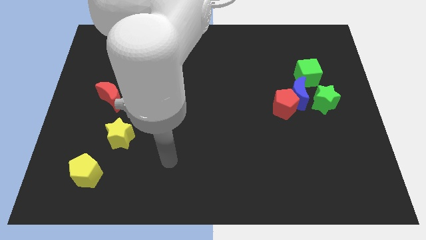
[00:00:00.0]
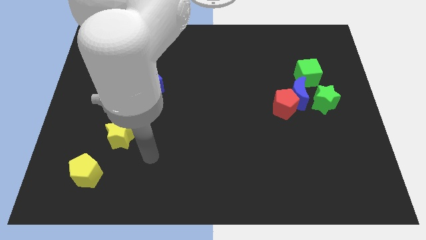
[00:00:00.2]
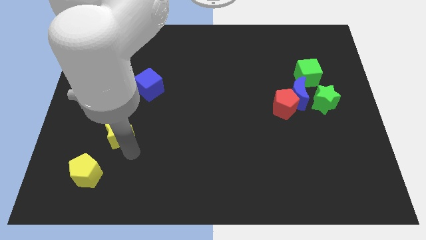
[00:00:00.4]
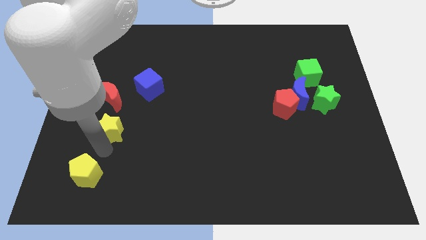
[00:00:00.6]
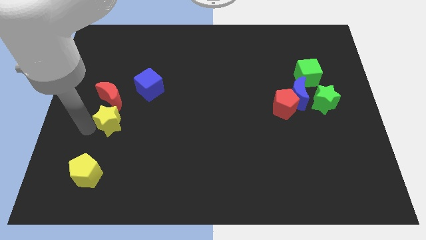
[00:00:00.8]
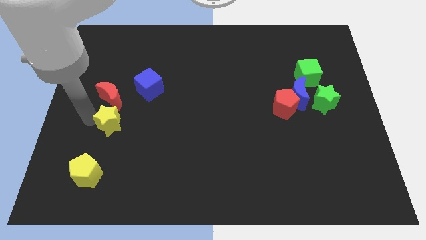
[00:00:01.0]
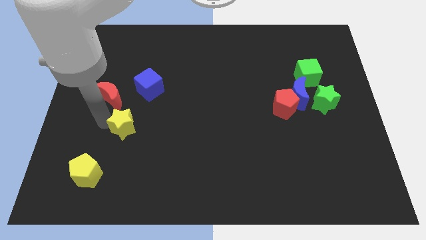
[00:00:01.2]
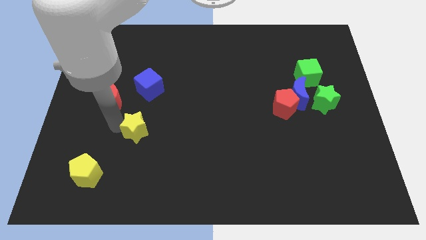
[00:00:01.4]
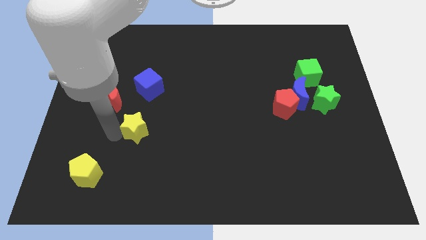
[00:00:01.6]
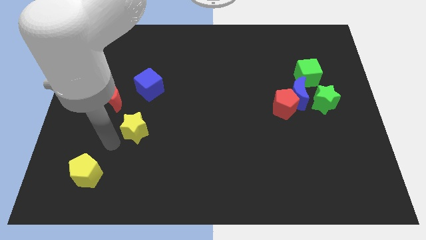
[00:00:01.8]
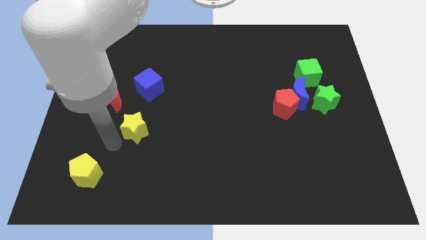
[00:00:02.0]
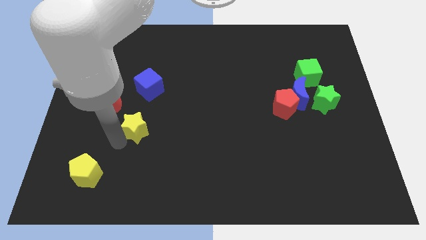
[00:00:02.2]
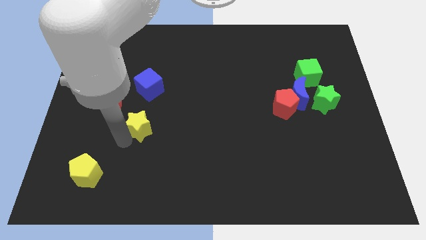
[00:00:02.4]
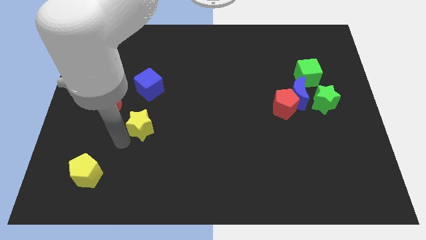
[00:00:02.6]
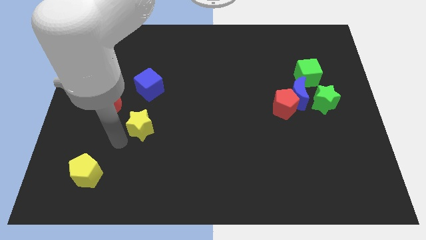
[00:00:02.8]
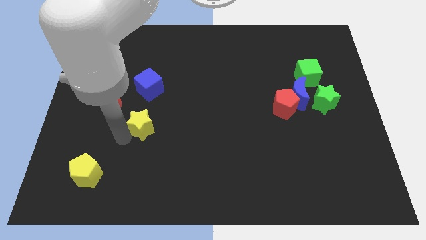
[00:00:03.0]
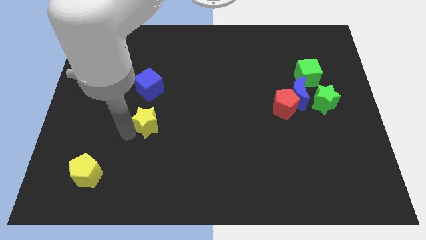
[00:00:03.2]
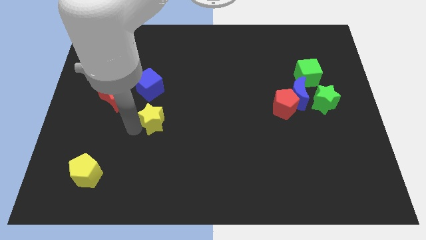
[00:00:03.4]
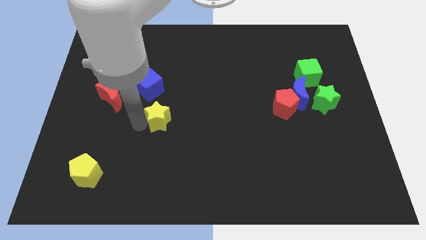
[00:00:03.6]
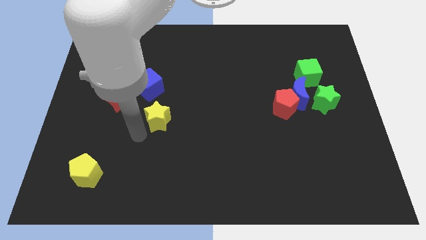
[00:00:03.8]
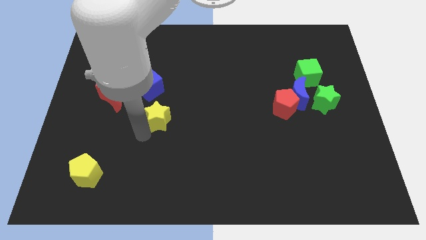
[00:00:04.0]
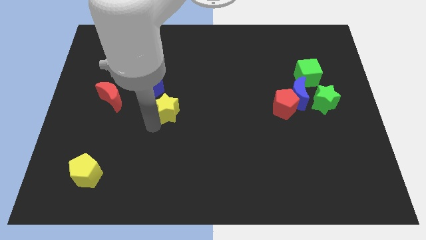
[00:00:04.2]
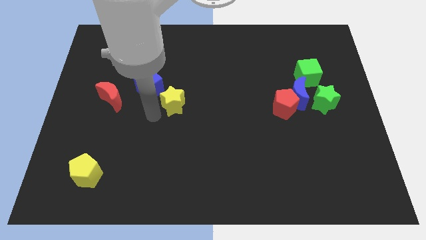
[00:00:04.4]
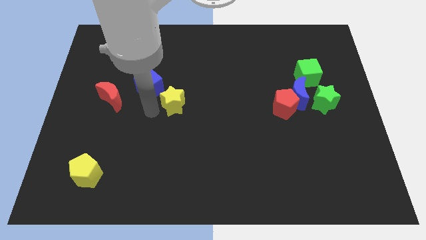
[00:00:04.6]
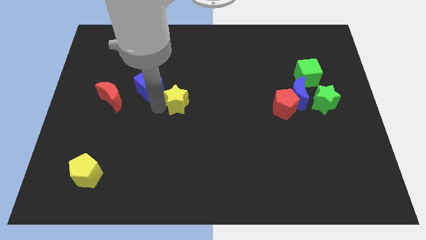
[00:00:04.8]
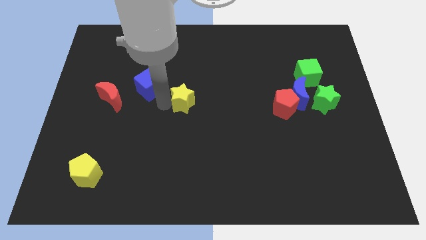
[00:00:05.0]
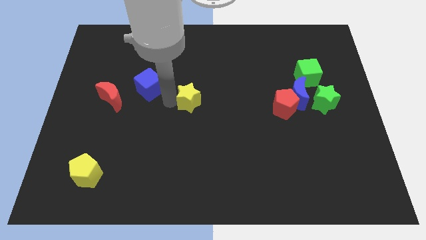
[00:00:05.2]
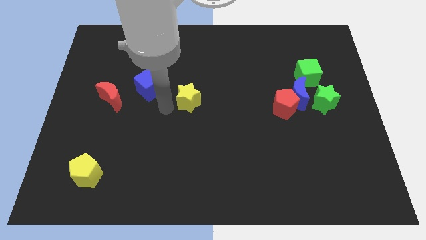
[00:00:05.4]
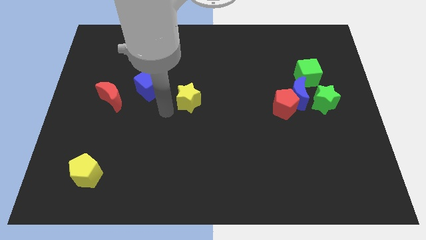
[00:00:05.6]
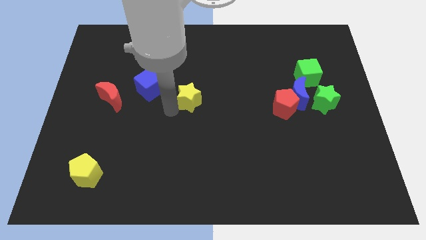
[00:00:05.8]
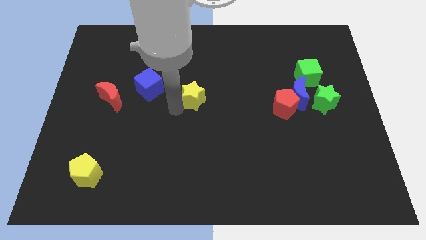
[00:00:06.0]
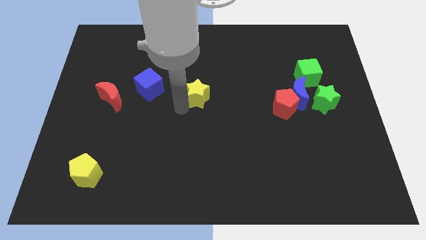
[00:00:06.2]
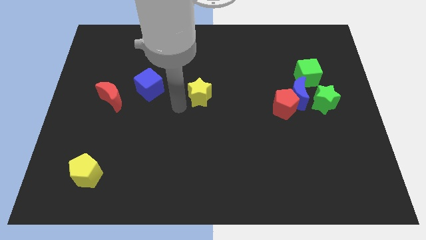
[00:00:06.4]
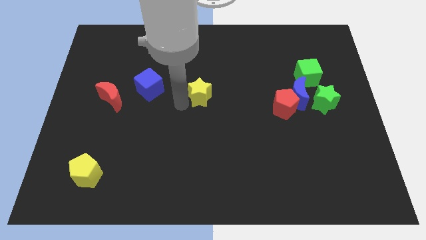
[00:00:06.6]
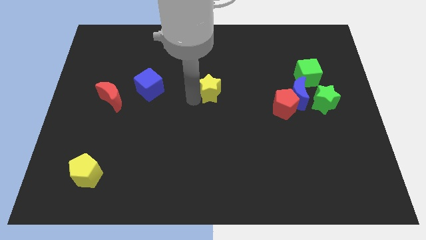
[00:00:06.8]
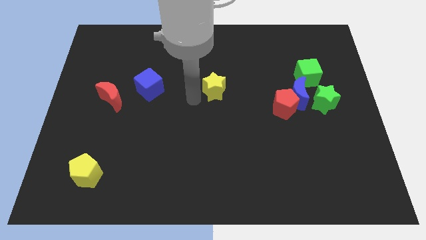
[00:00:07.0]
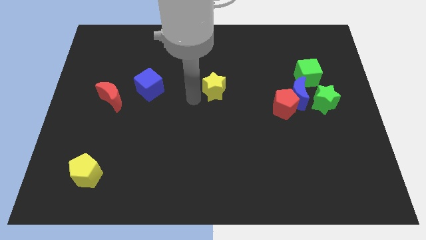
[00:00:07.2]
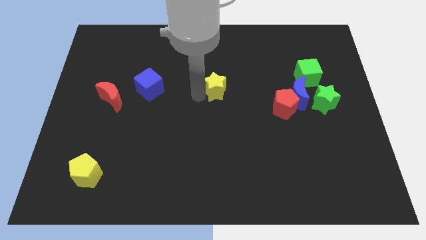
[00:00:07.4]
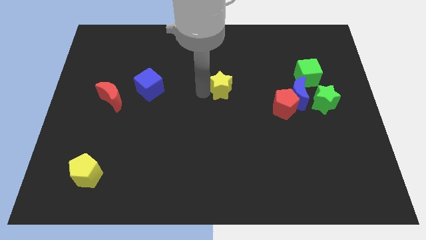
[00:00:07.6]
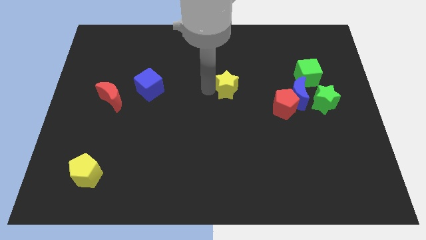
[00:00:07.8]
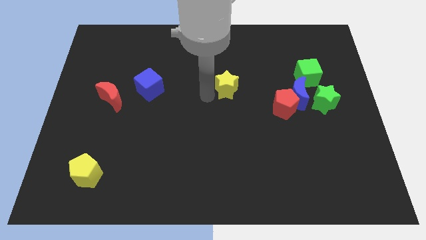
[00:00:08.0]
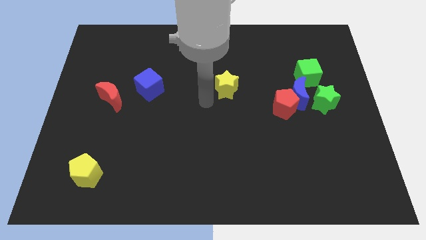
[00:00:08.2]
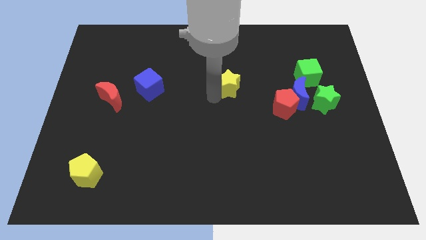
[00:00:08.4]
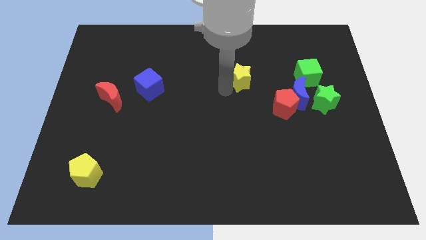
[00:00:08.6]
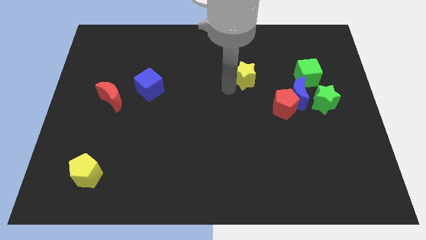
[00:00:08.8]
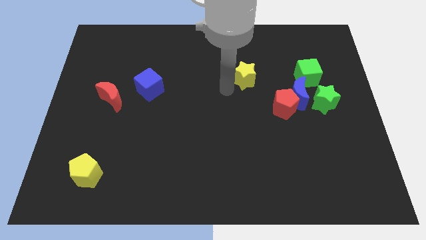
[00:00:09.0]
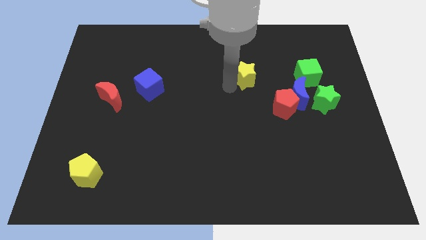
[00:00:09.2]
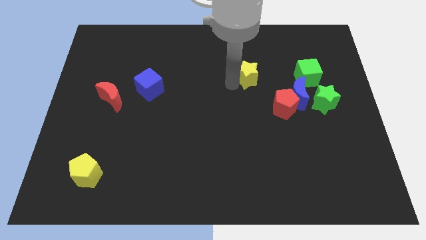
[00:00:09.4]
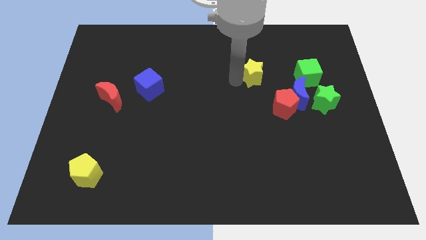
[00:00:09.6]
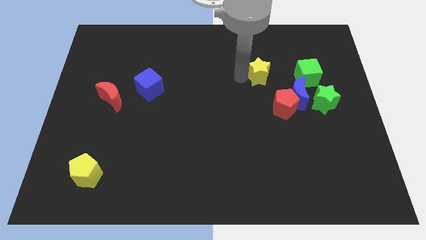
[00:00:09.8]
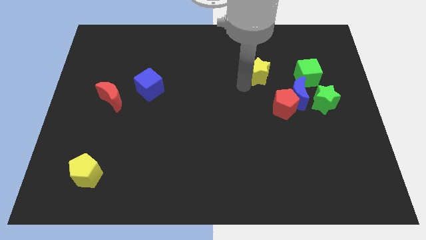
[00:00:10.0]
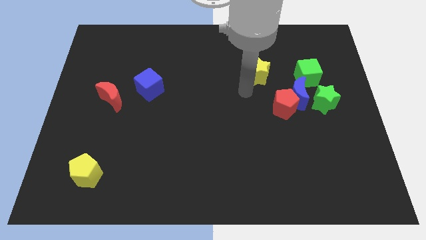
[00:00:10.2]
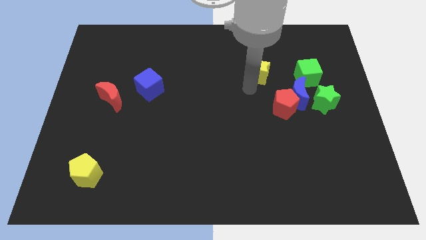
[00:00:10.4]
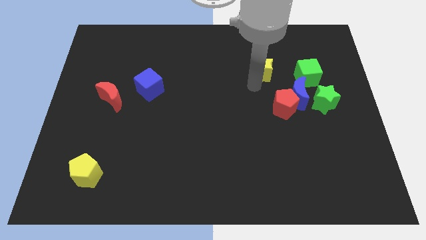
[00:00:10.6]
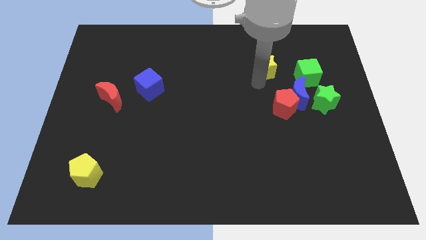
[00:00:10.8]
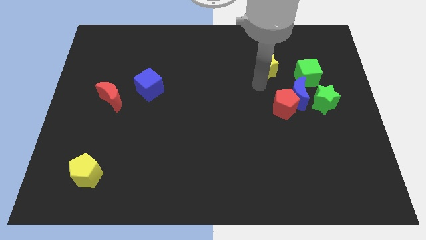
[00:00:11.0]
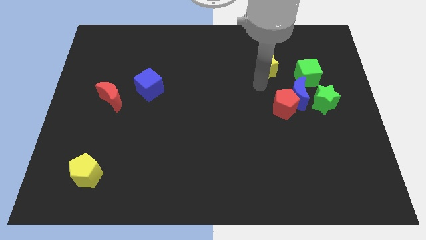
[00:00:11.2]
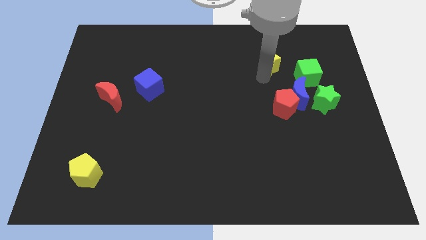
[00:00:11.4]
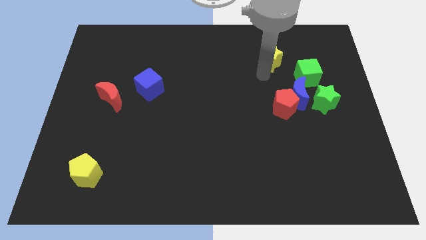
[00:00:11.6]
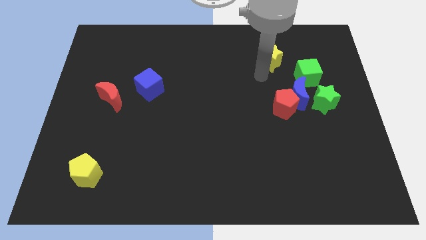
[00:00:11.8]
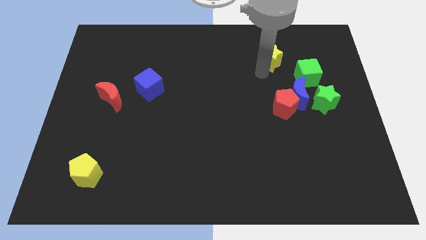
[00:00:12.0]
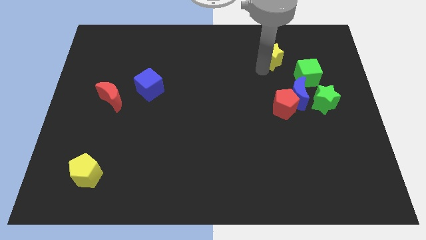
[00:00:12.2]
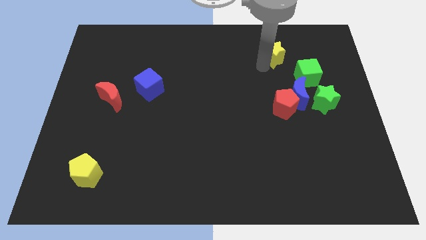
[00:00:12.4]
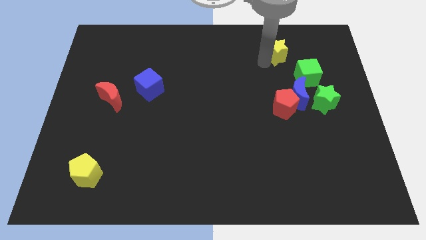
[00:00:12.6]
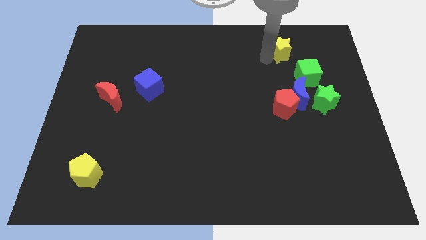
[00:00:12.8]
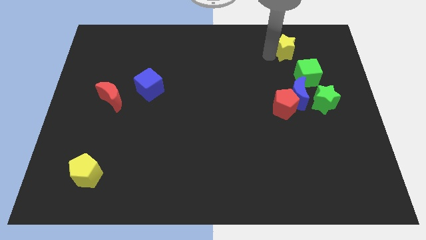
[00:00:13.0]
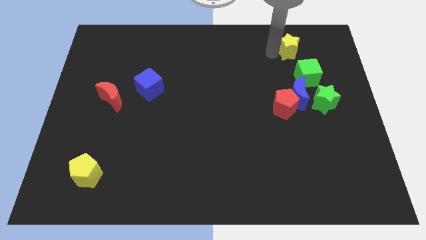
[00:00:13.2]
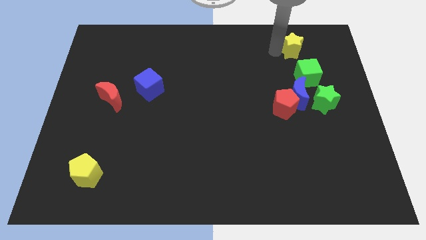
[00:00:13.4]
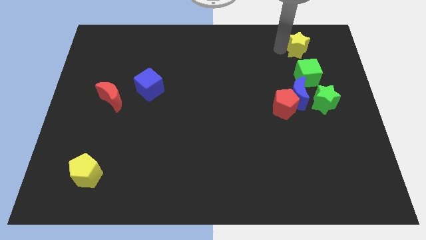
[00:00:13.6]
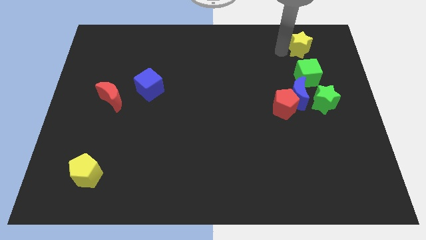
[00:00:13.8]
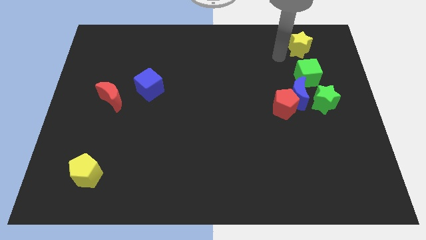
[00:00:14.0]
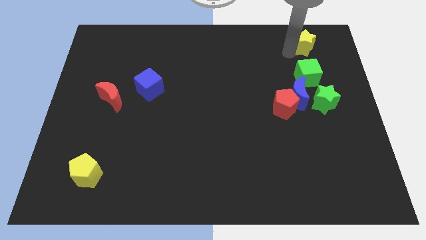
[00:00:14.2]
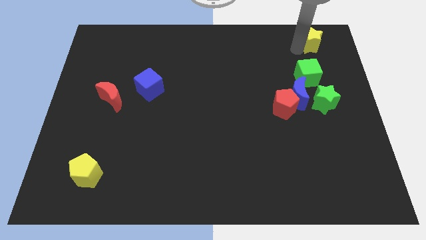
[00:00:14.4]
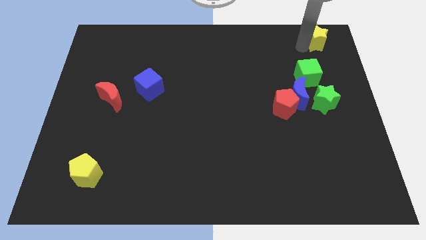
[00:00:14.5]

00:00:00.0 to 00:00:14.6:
slide the yellow star to the upper right corner

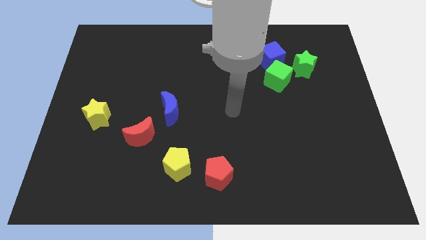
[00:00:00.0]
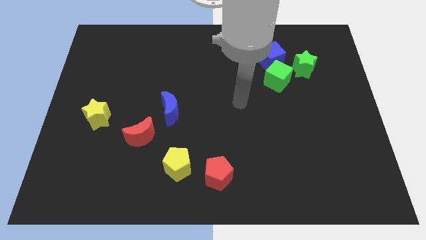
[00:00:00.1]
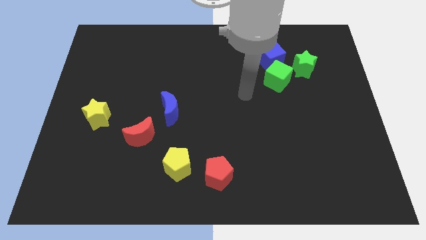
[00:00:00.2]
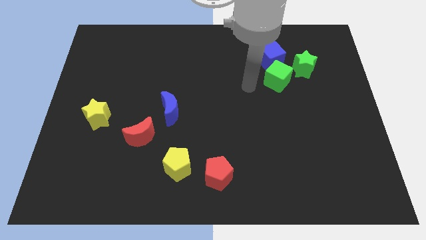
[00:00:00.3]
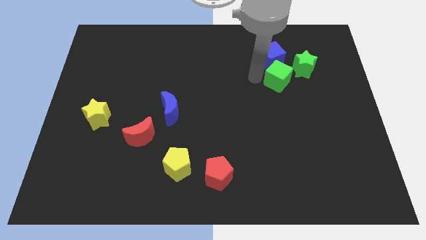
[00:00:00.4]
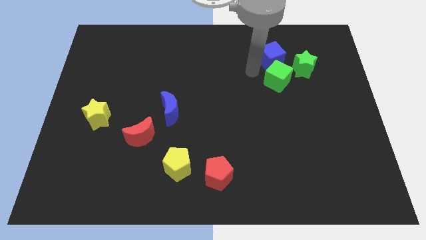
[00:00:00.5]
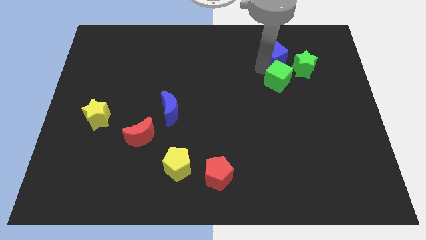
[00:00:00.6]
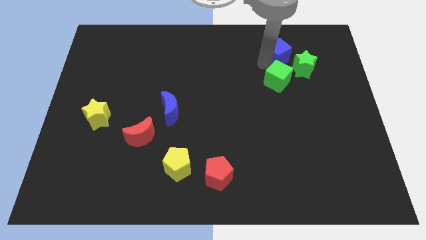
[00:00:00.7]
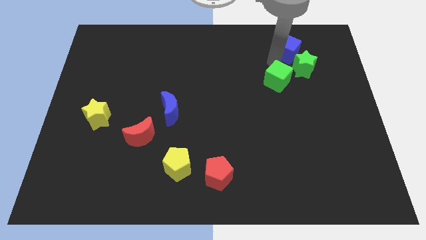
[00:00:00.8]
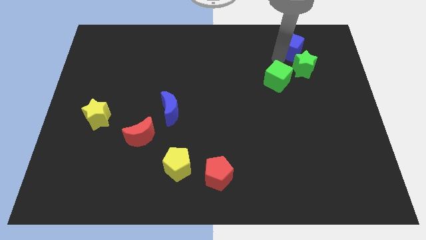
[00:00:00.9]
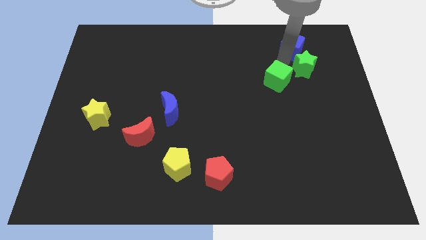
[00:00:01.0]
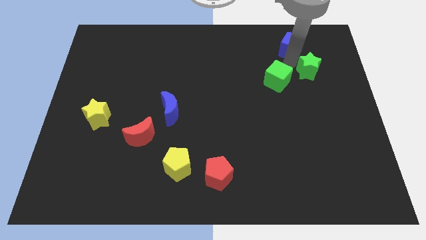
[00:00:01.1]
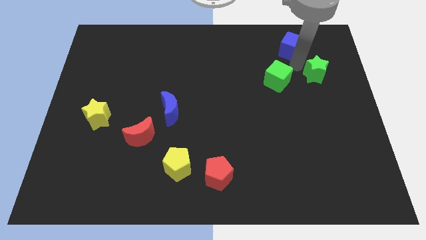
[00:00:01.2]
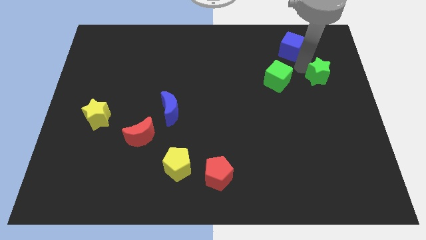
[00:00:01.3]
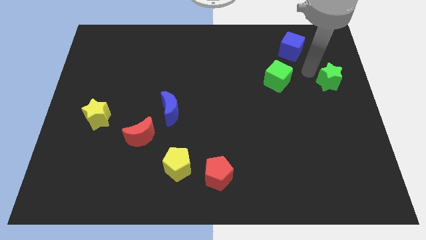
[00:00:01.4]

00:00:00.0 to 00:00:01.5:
slide the green star to the center right
